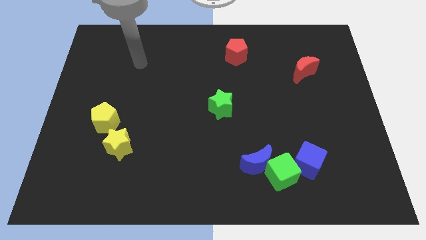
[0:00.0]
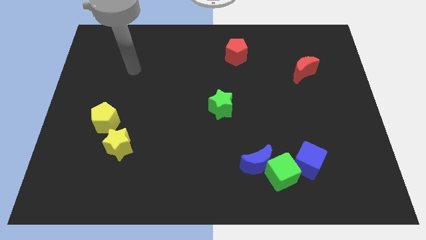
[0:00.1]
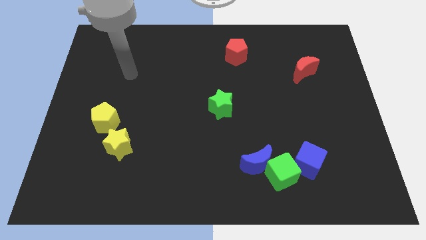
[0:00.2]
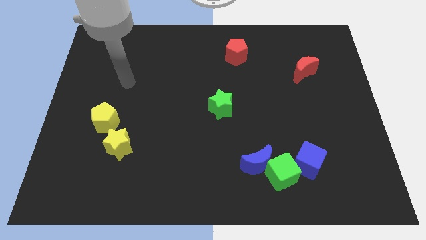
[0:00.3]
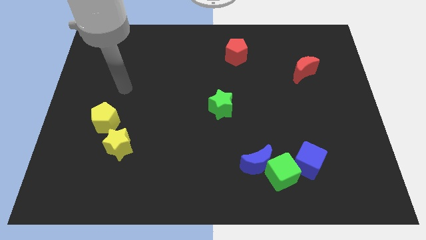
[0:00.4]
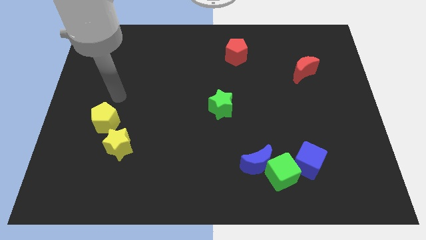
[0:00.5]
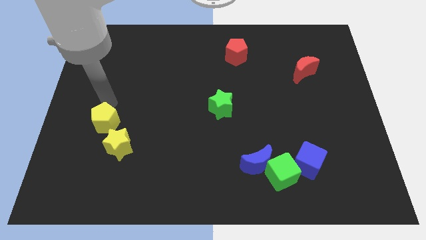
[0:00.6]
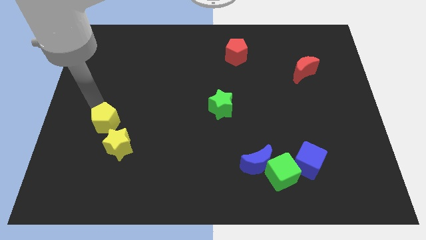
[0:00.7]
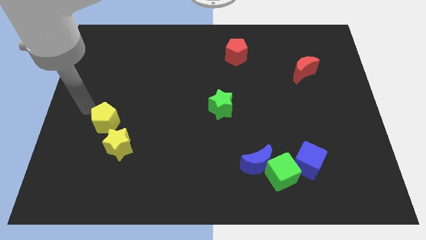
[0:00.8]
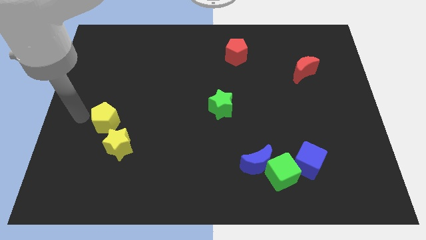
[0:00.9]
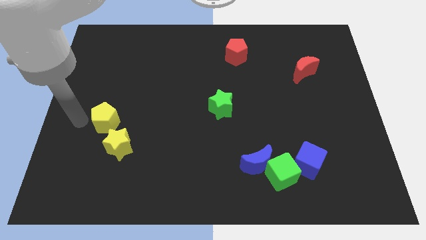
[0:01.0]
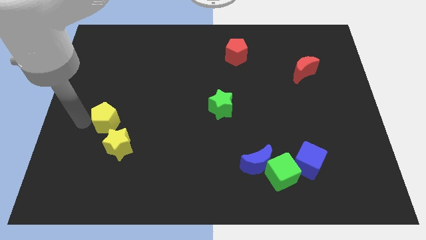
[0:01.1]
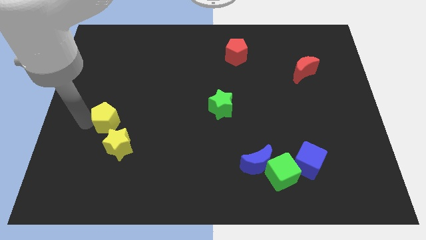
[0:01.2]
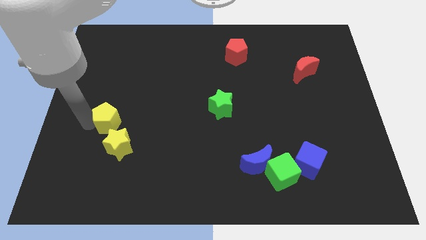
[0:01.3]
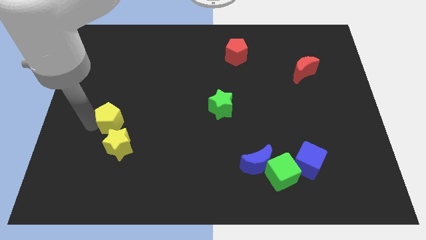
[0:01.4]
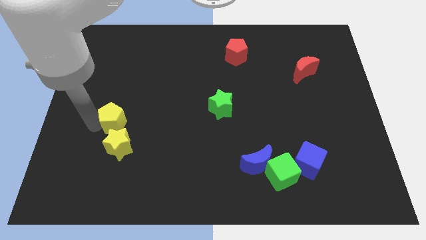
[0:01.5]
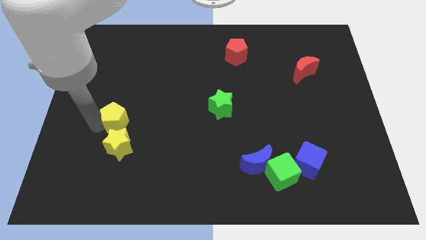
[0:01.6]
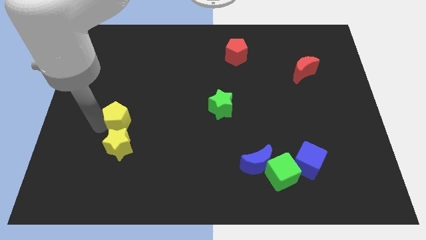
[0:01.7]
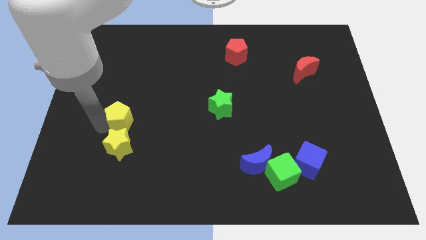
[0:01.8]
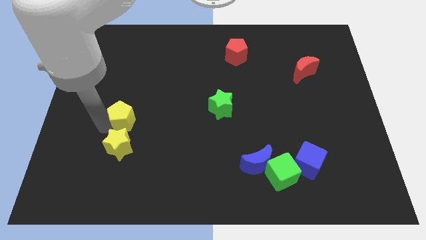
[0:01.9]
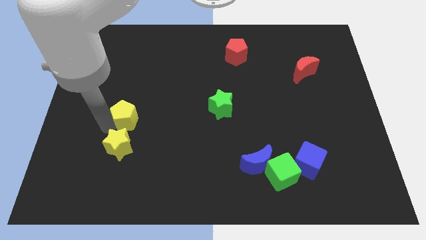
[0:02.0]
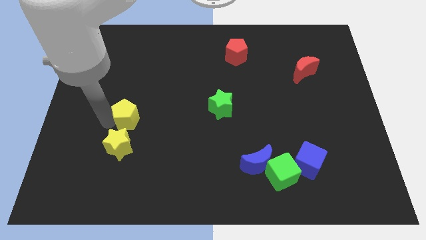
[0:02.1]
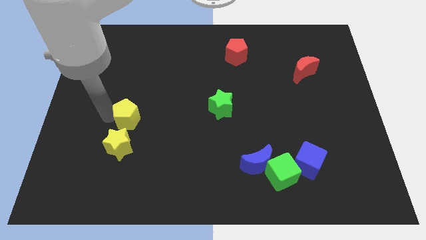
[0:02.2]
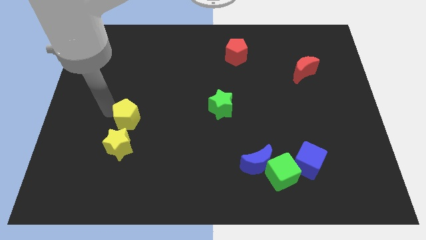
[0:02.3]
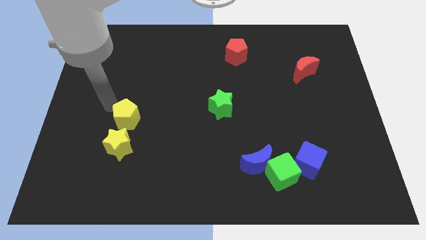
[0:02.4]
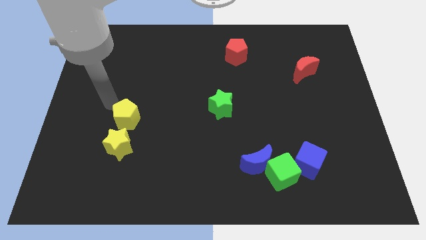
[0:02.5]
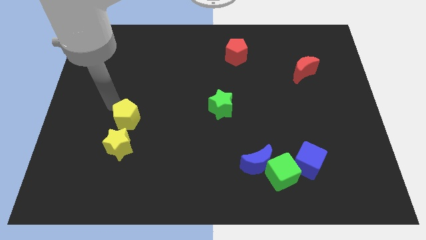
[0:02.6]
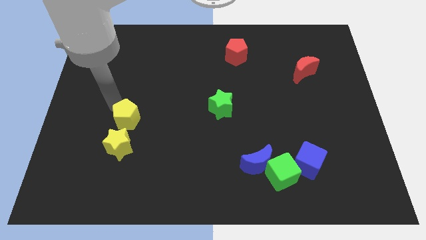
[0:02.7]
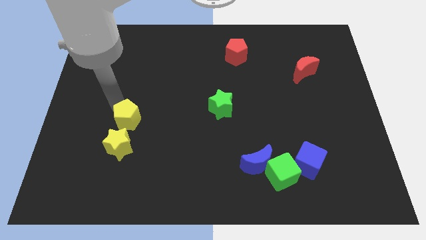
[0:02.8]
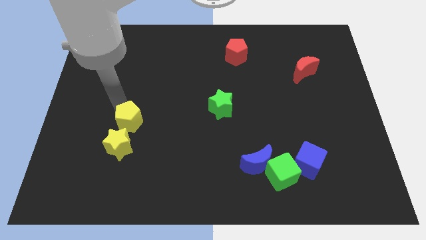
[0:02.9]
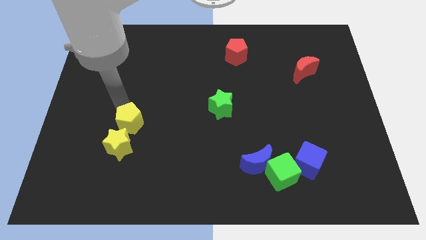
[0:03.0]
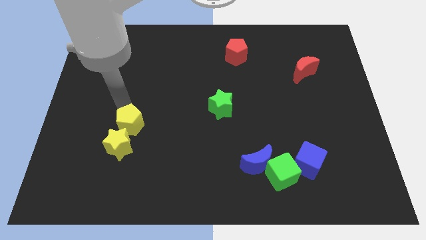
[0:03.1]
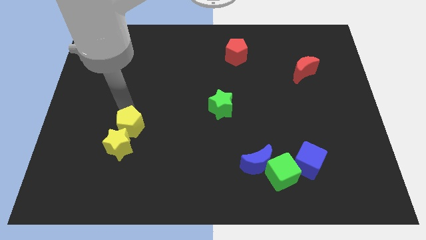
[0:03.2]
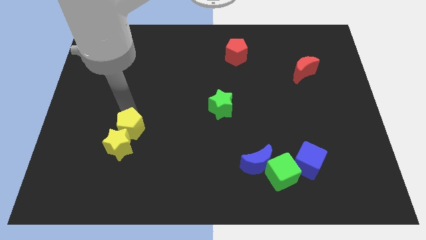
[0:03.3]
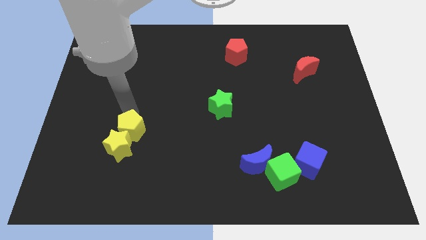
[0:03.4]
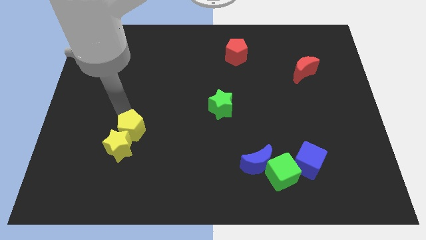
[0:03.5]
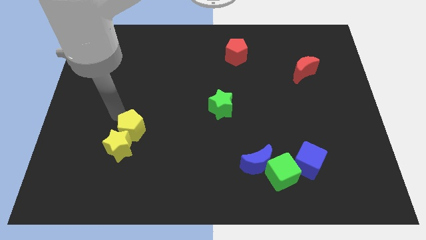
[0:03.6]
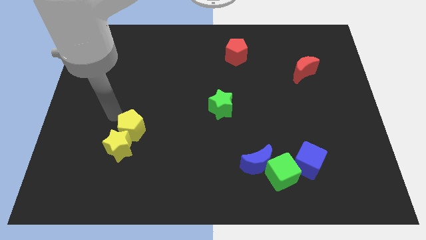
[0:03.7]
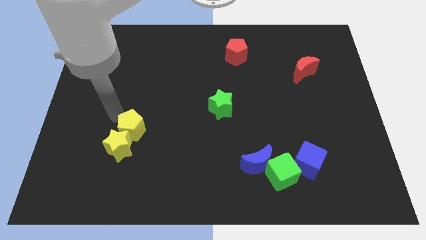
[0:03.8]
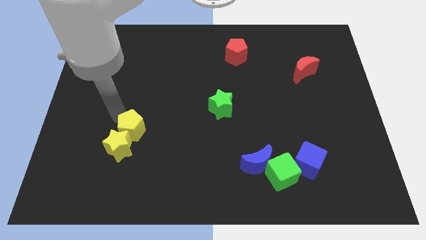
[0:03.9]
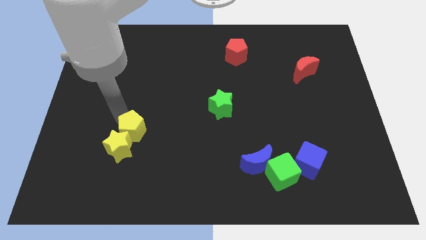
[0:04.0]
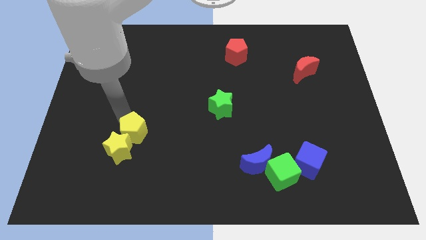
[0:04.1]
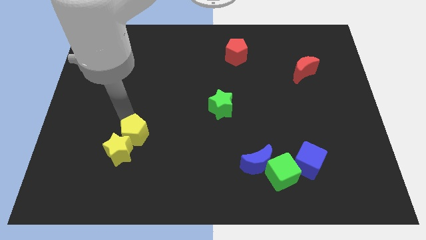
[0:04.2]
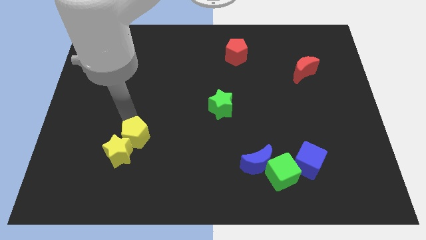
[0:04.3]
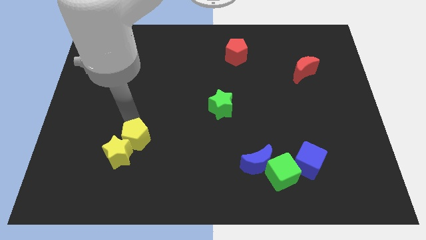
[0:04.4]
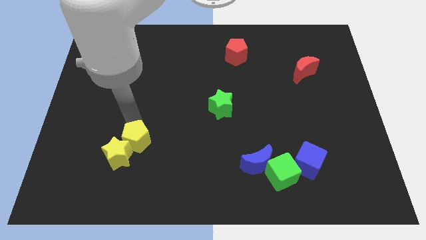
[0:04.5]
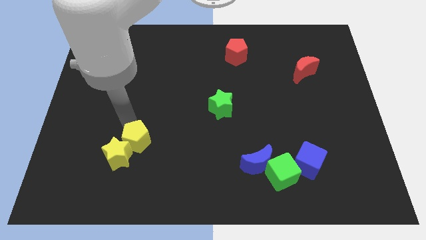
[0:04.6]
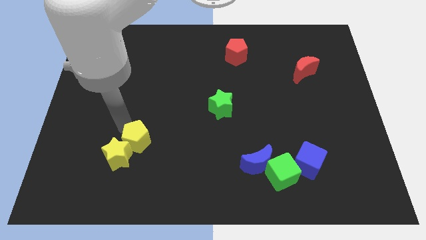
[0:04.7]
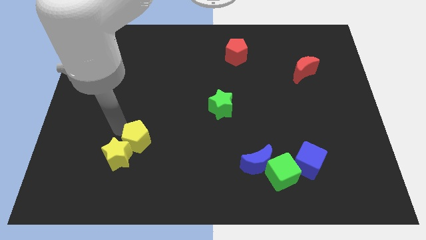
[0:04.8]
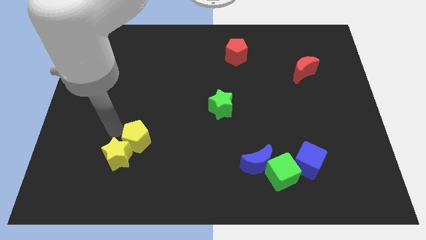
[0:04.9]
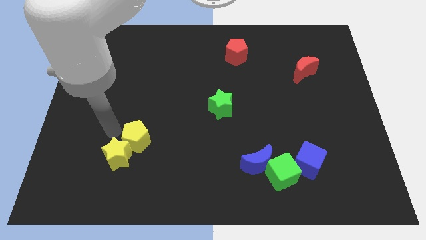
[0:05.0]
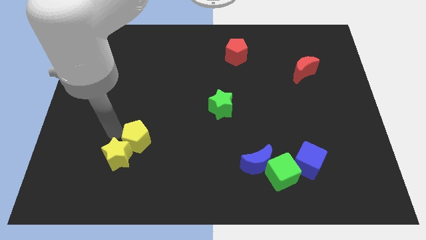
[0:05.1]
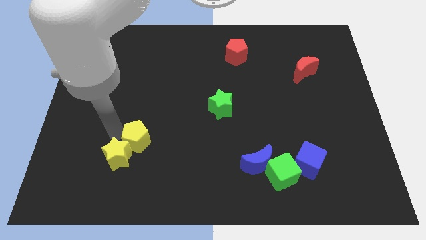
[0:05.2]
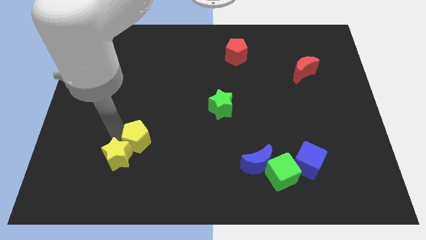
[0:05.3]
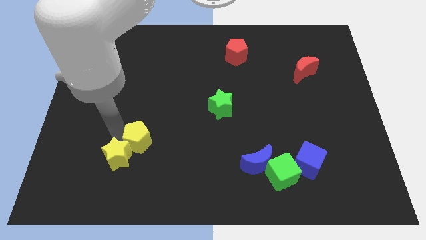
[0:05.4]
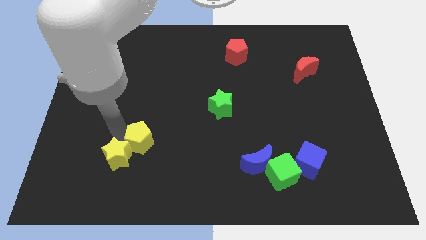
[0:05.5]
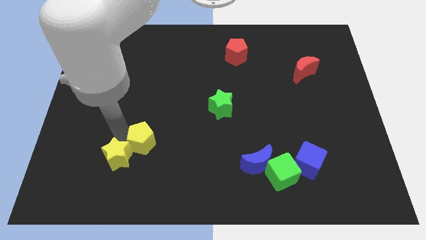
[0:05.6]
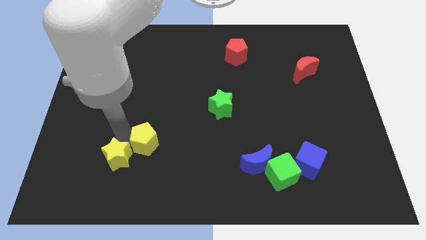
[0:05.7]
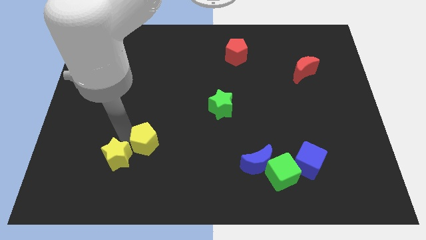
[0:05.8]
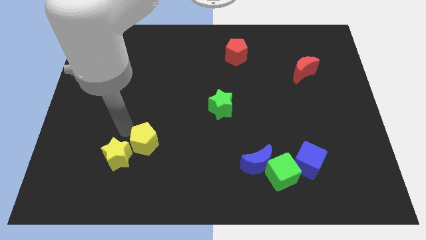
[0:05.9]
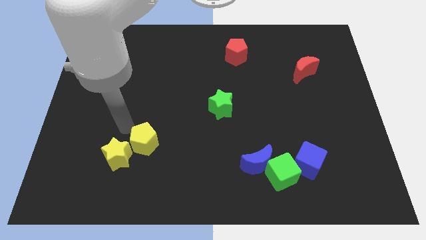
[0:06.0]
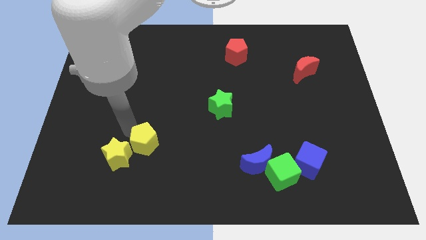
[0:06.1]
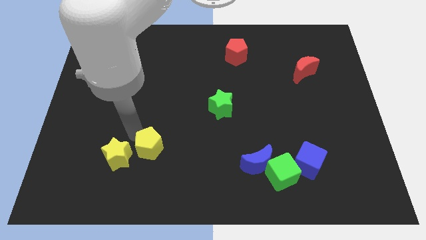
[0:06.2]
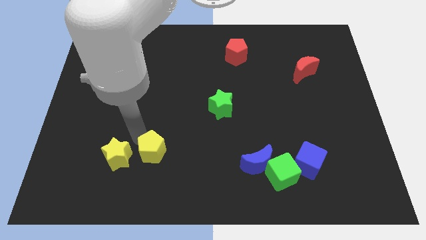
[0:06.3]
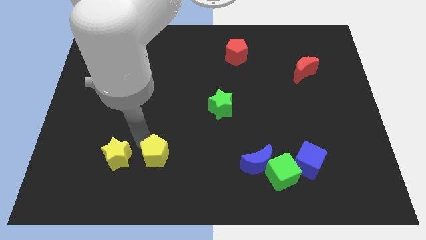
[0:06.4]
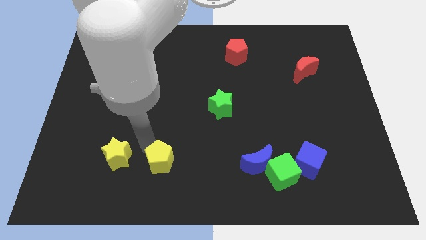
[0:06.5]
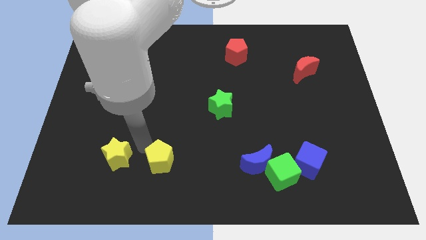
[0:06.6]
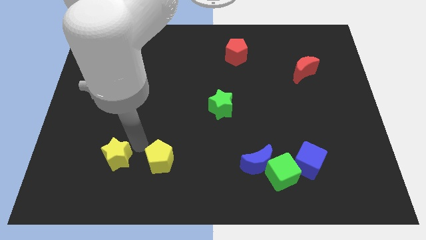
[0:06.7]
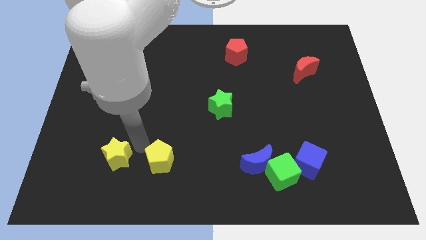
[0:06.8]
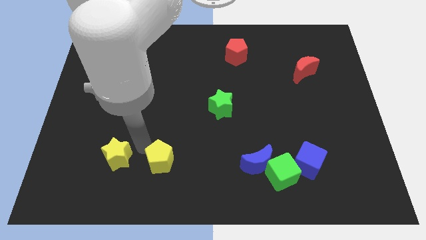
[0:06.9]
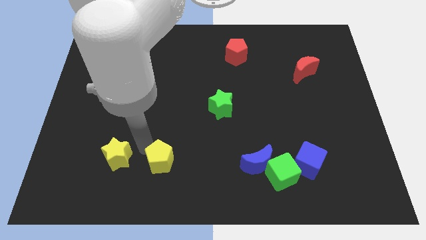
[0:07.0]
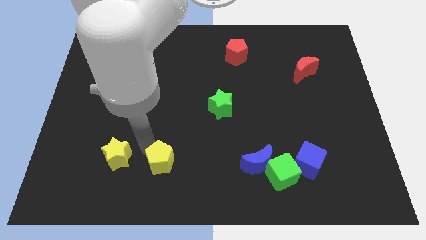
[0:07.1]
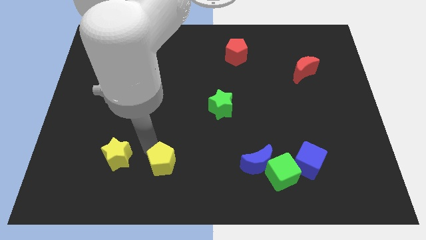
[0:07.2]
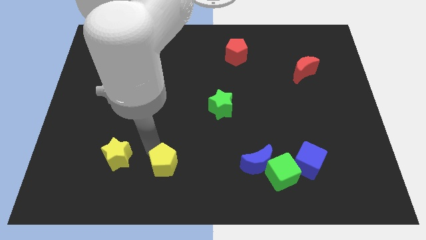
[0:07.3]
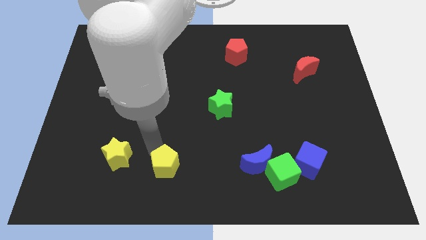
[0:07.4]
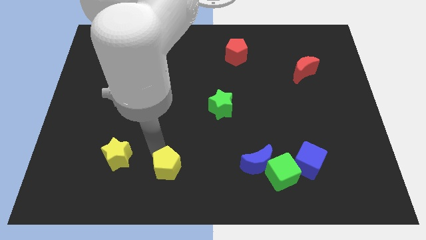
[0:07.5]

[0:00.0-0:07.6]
push the yellow pentagon to the bottom
